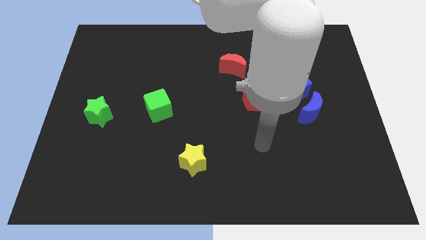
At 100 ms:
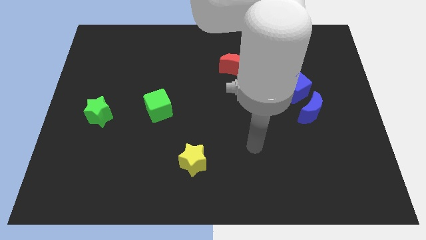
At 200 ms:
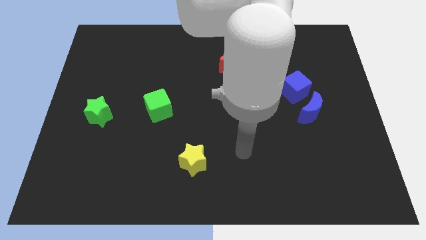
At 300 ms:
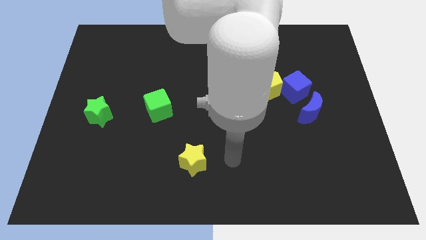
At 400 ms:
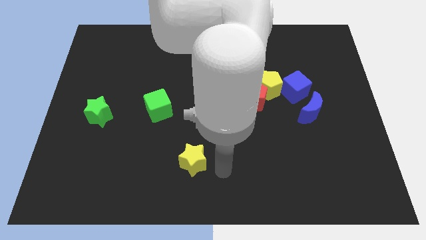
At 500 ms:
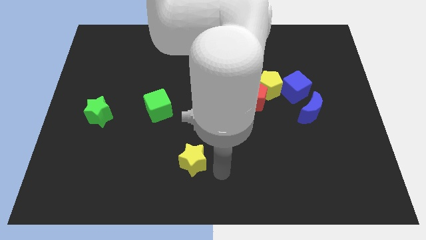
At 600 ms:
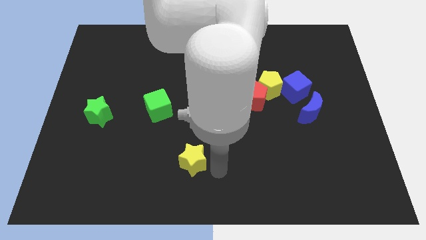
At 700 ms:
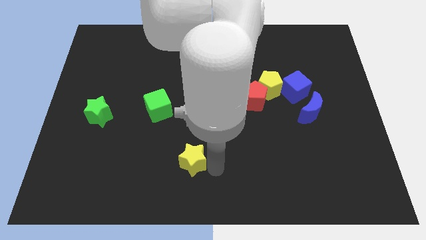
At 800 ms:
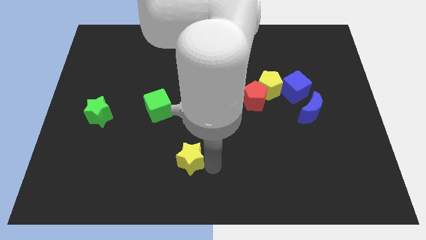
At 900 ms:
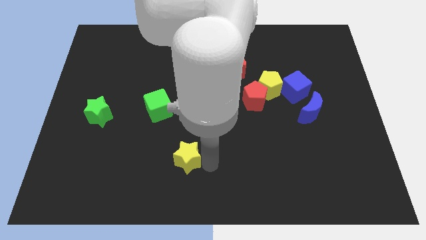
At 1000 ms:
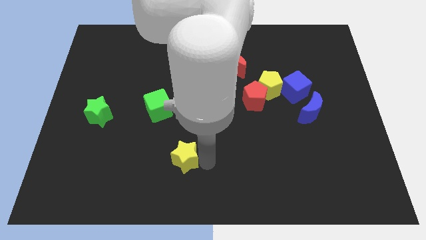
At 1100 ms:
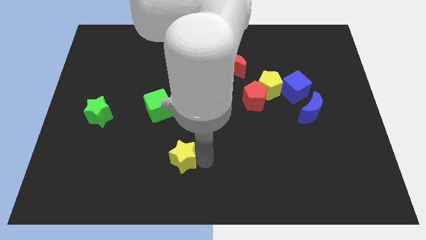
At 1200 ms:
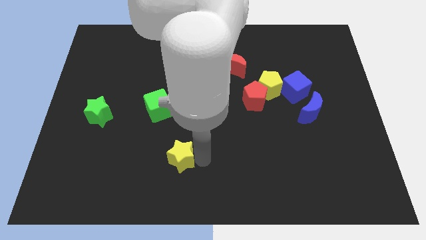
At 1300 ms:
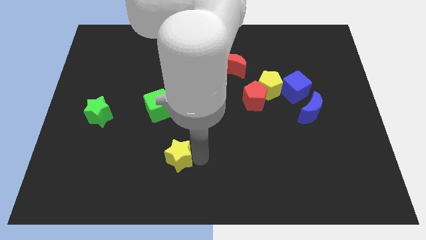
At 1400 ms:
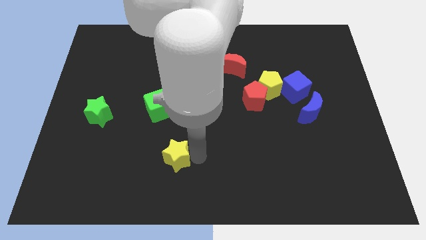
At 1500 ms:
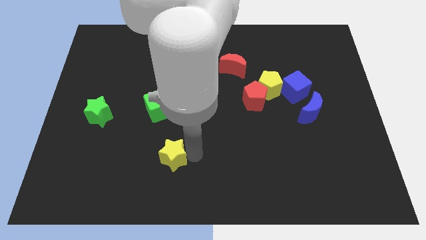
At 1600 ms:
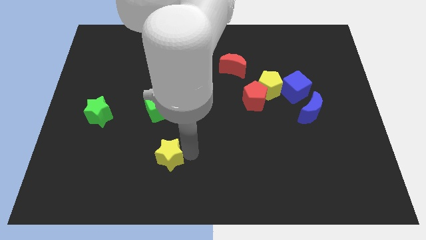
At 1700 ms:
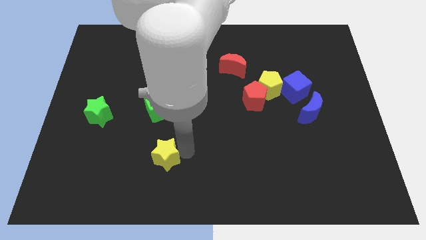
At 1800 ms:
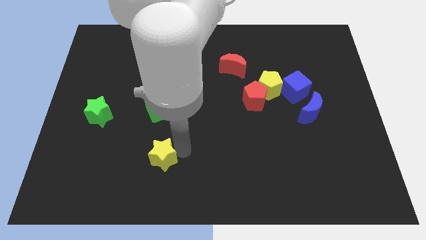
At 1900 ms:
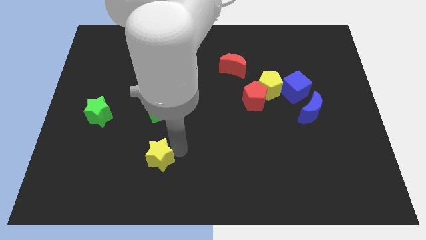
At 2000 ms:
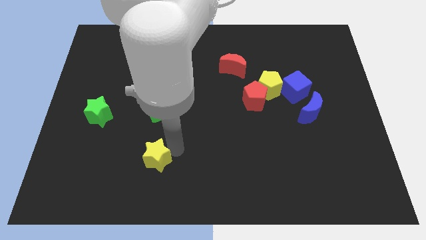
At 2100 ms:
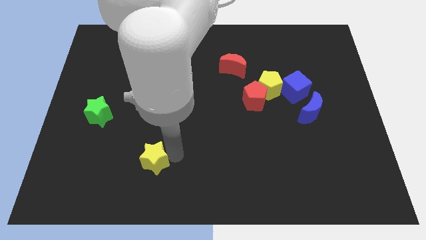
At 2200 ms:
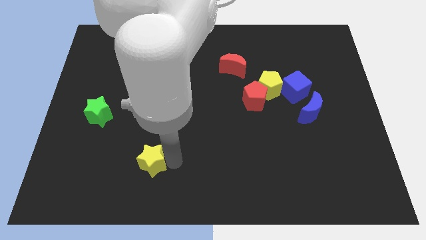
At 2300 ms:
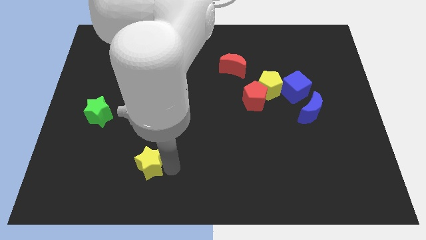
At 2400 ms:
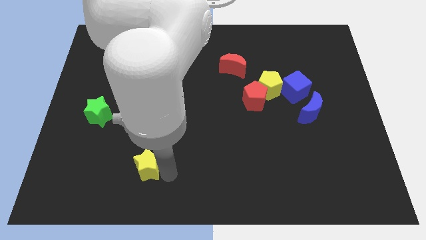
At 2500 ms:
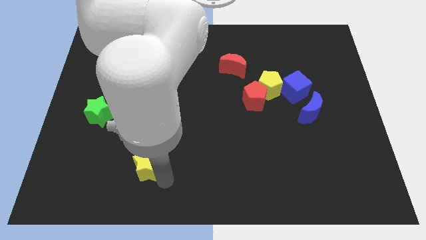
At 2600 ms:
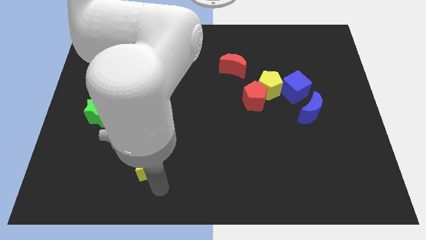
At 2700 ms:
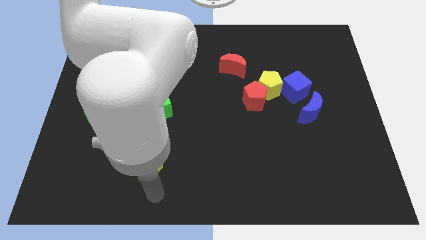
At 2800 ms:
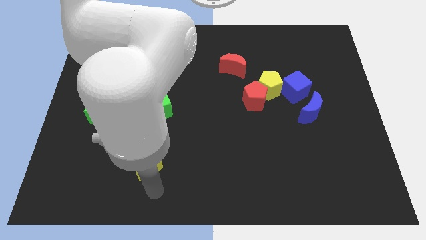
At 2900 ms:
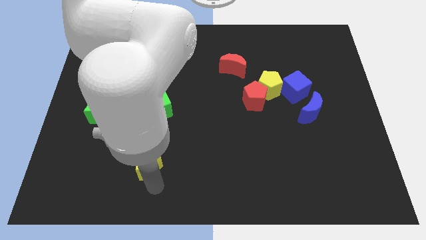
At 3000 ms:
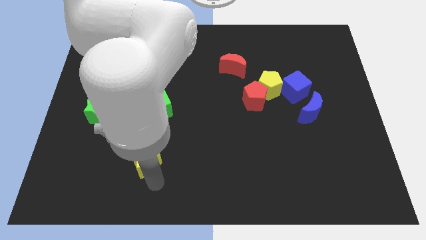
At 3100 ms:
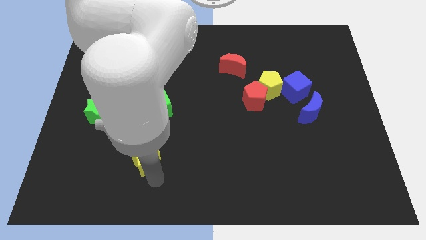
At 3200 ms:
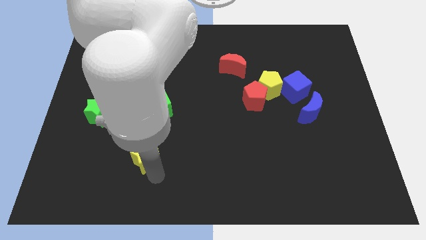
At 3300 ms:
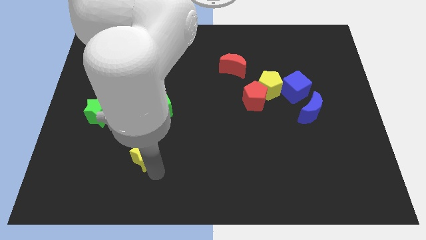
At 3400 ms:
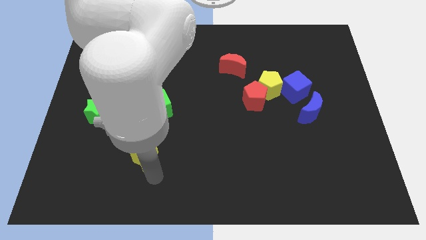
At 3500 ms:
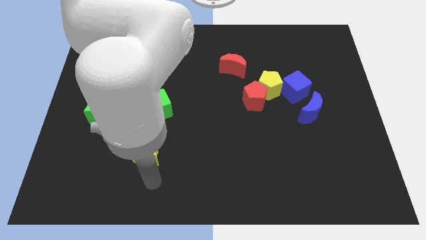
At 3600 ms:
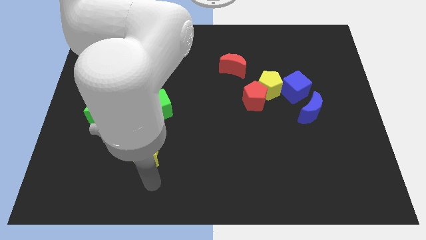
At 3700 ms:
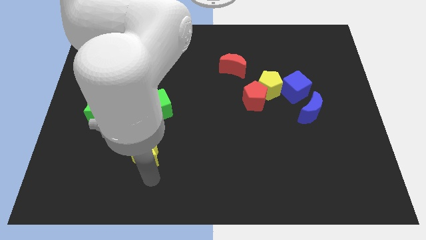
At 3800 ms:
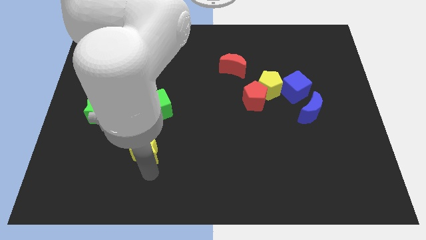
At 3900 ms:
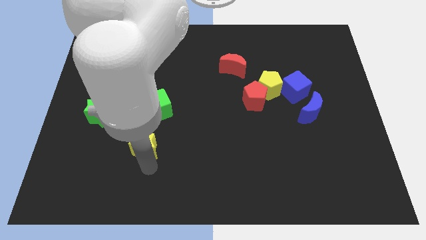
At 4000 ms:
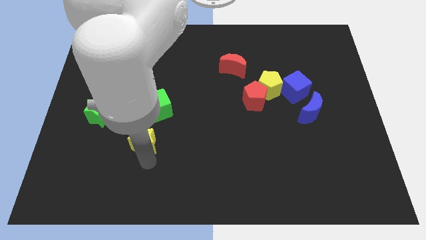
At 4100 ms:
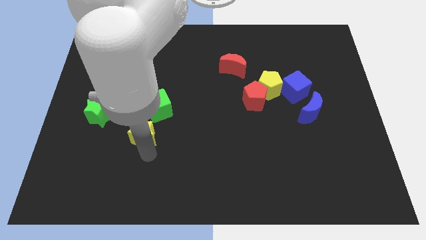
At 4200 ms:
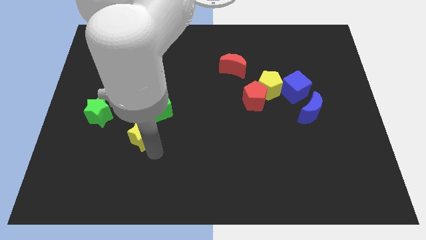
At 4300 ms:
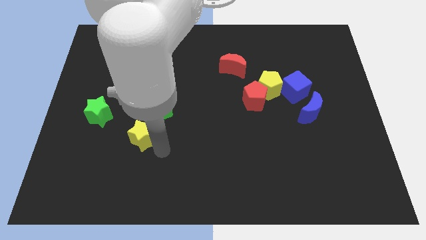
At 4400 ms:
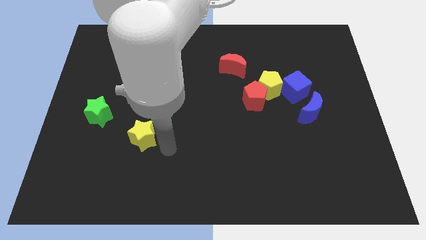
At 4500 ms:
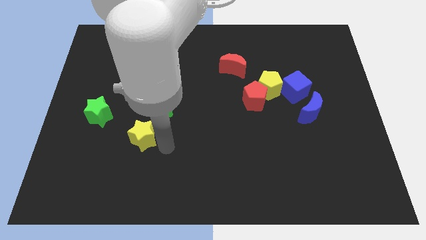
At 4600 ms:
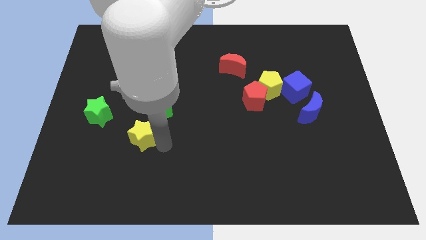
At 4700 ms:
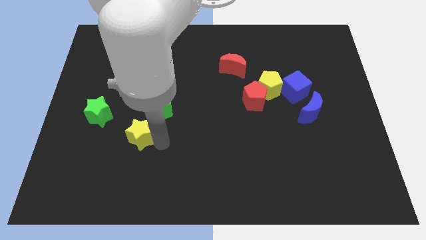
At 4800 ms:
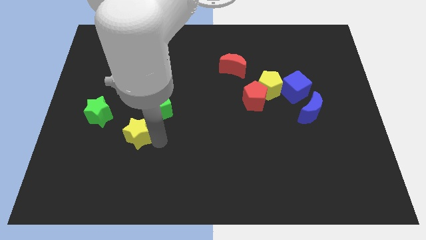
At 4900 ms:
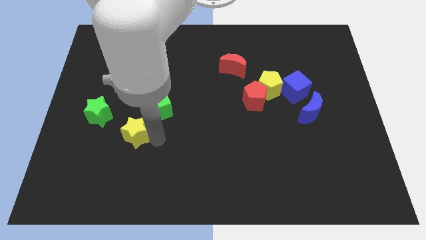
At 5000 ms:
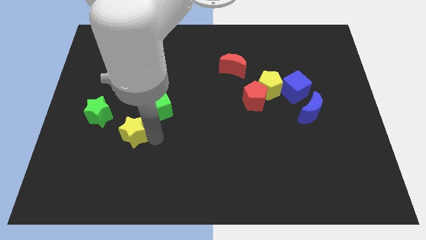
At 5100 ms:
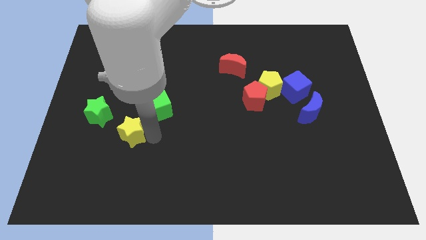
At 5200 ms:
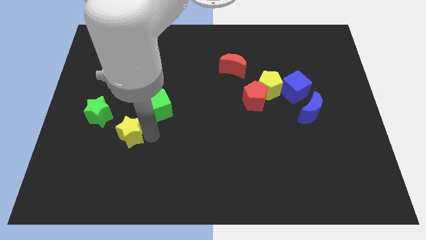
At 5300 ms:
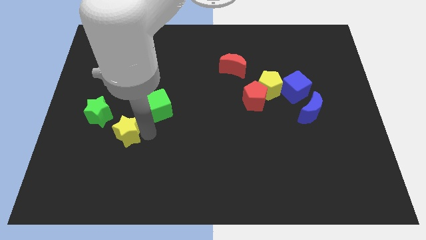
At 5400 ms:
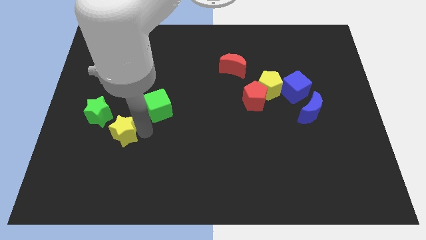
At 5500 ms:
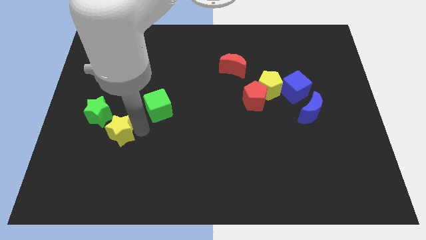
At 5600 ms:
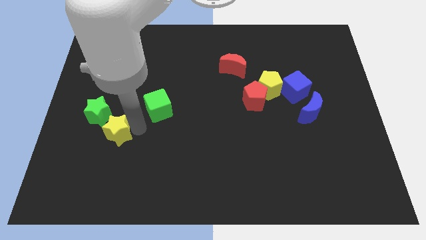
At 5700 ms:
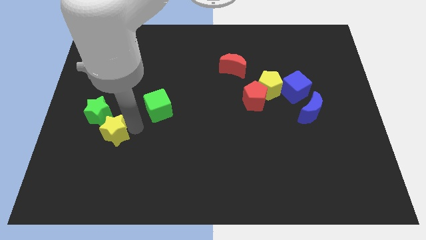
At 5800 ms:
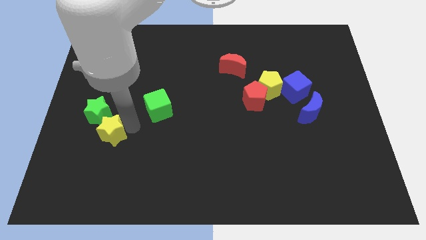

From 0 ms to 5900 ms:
move the yellow star towards the green star

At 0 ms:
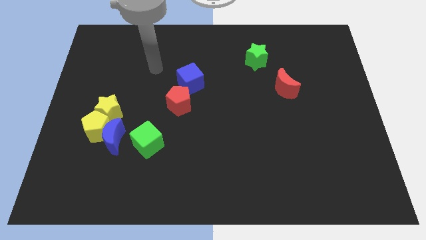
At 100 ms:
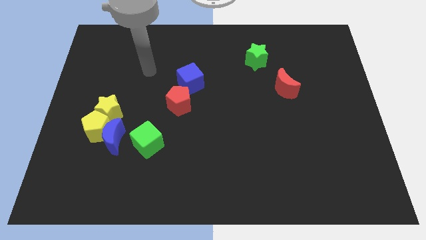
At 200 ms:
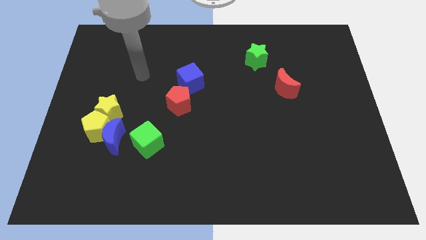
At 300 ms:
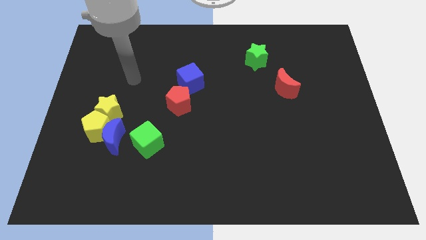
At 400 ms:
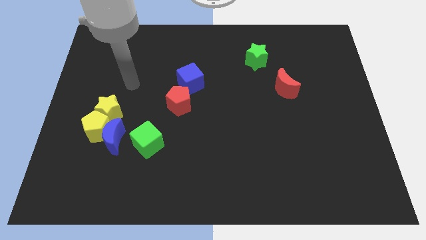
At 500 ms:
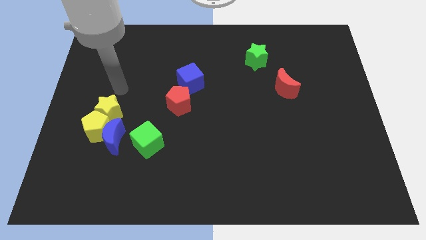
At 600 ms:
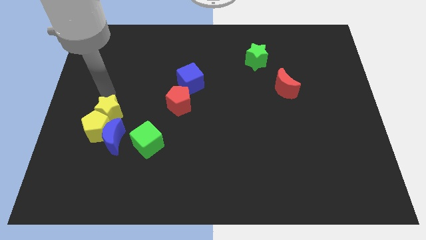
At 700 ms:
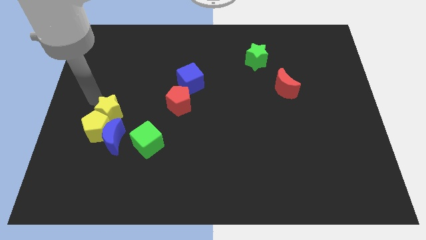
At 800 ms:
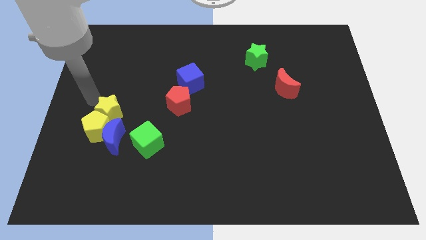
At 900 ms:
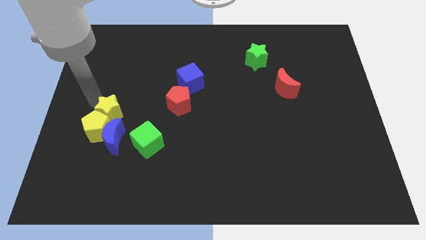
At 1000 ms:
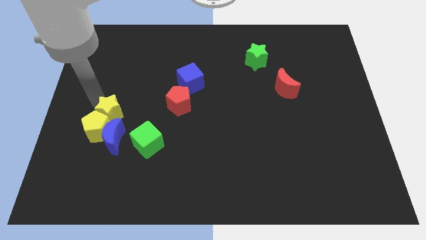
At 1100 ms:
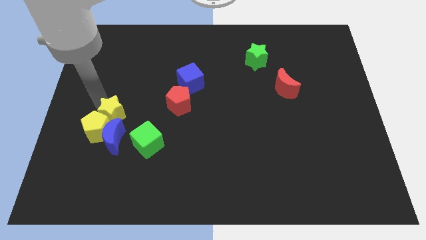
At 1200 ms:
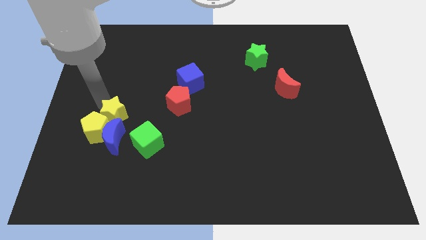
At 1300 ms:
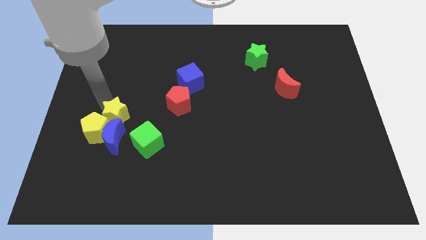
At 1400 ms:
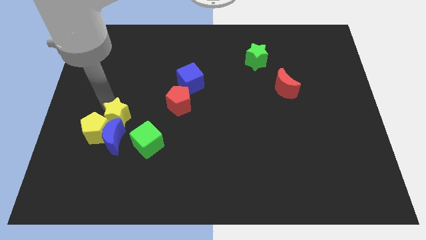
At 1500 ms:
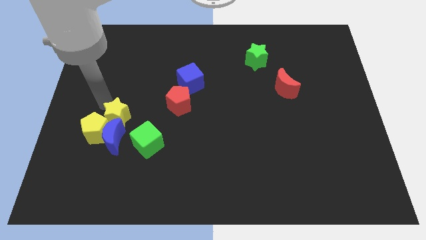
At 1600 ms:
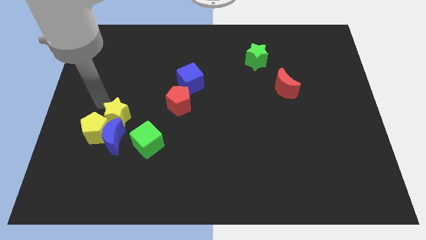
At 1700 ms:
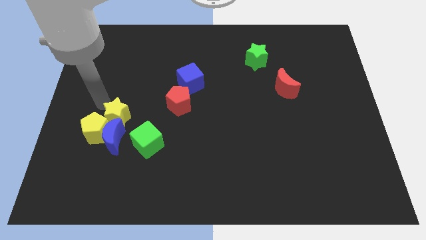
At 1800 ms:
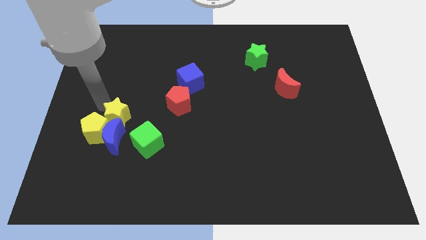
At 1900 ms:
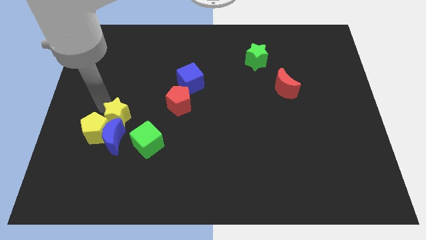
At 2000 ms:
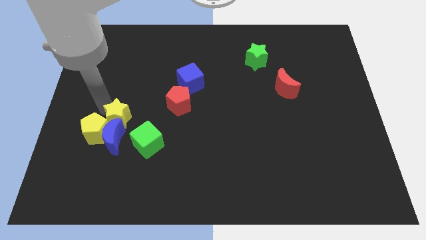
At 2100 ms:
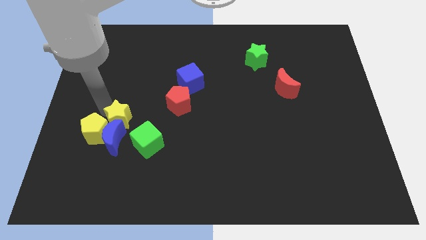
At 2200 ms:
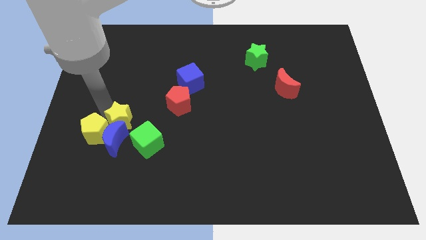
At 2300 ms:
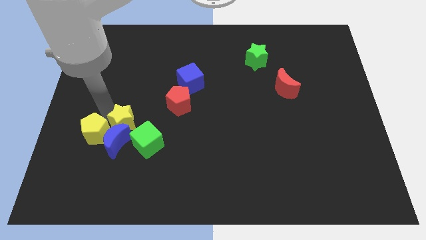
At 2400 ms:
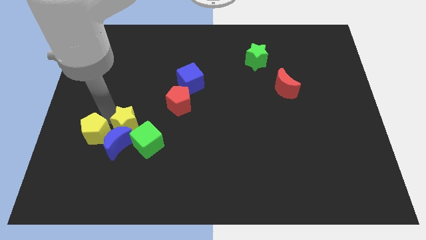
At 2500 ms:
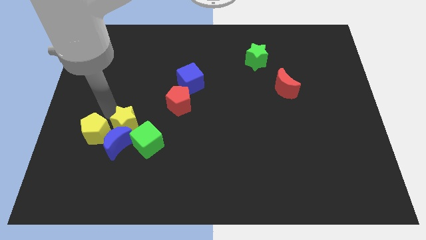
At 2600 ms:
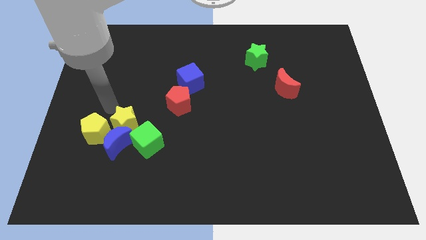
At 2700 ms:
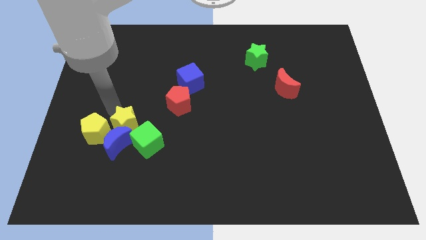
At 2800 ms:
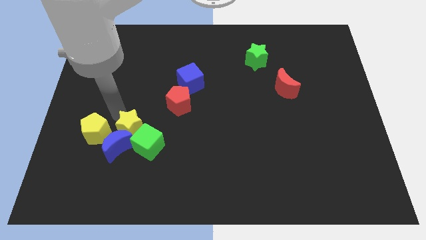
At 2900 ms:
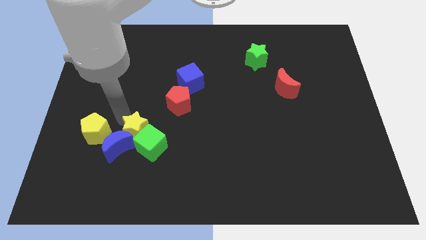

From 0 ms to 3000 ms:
put the yellow star close to the green cube
